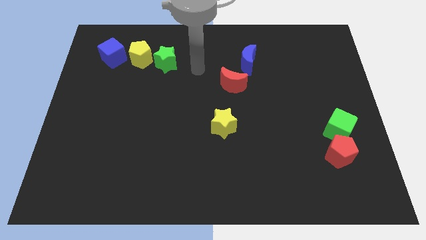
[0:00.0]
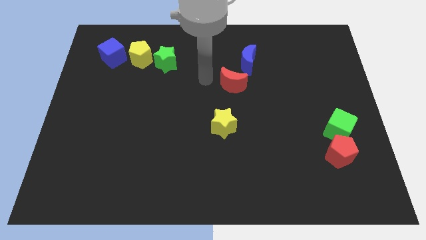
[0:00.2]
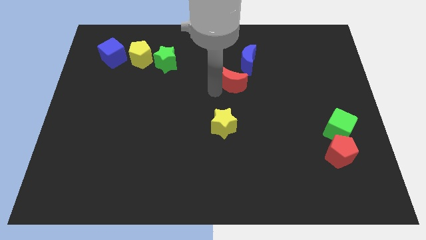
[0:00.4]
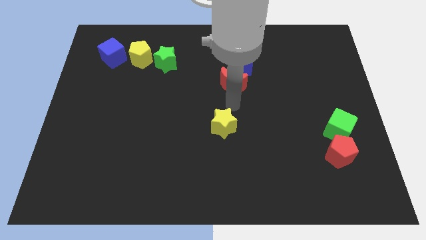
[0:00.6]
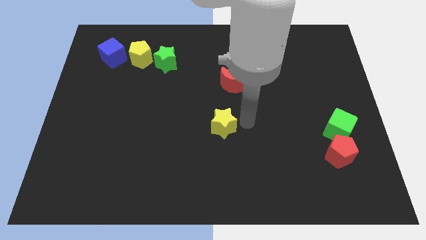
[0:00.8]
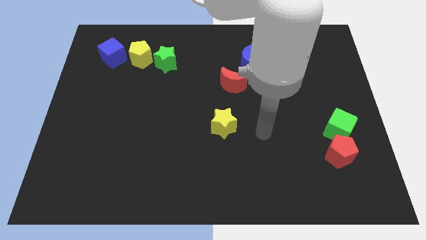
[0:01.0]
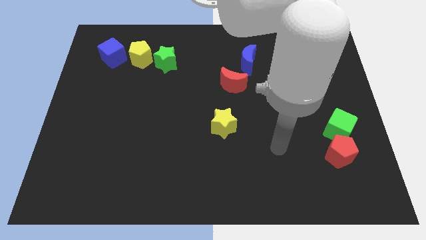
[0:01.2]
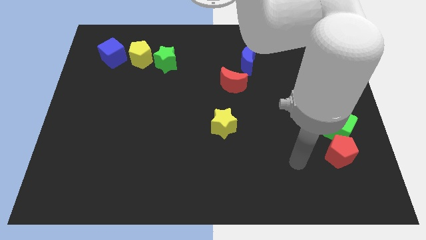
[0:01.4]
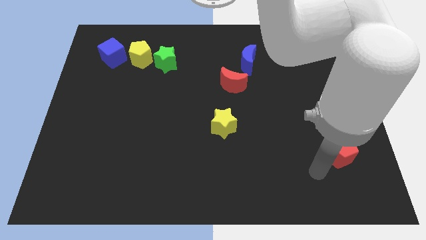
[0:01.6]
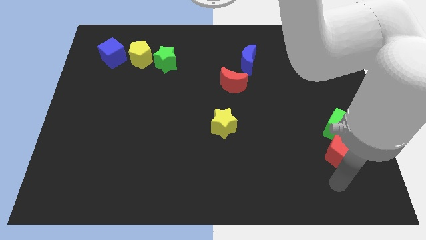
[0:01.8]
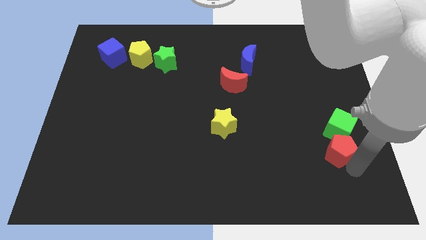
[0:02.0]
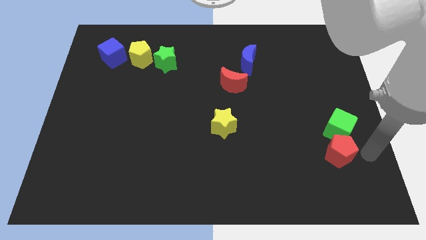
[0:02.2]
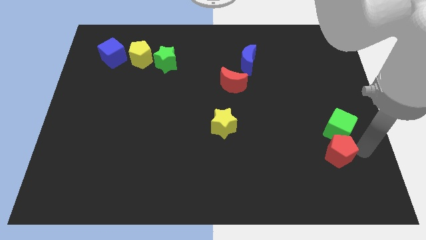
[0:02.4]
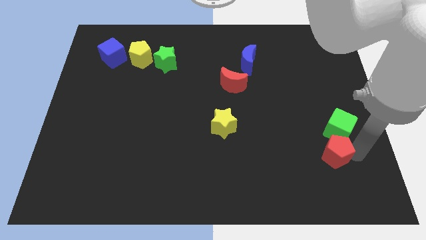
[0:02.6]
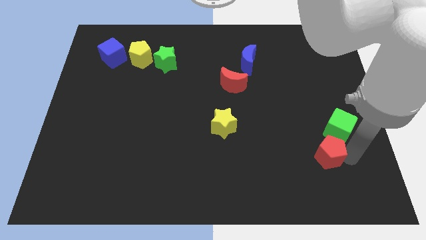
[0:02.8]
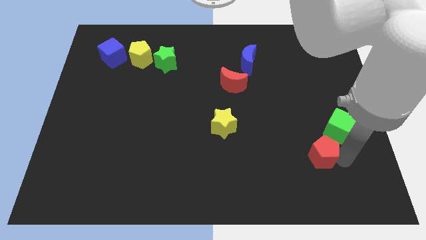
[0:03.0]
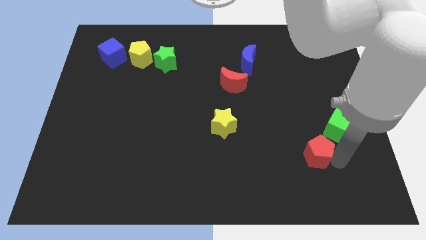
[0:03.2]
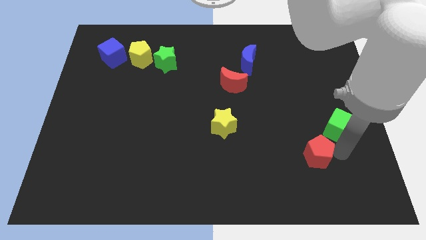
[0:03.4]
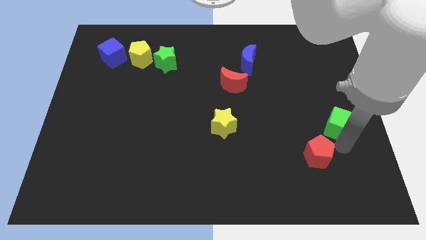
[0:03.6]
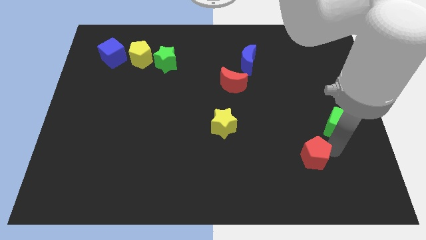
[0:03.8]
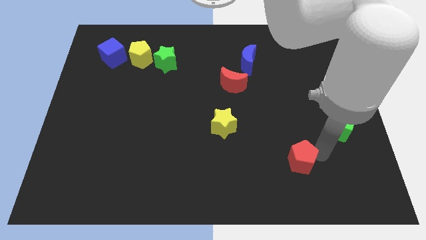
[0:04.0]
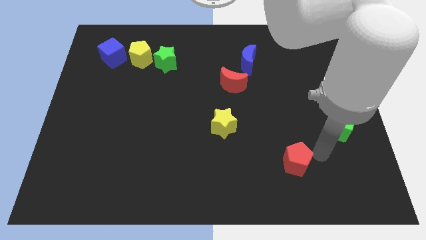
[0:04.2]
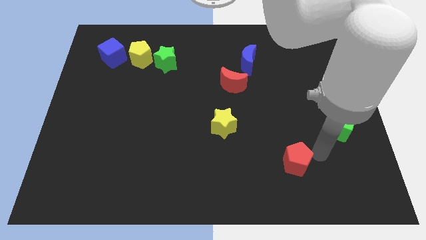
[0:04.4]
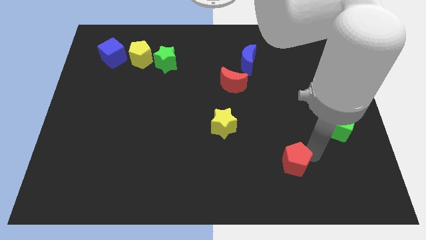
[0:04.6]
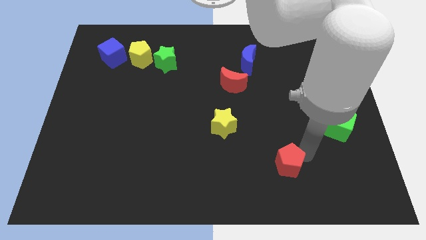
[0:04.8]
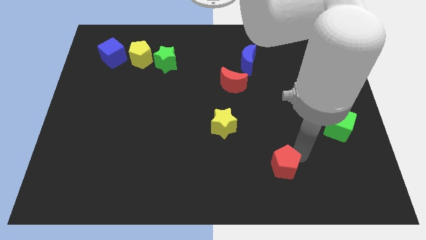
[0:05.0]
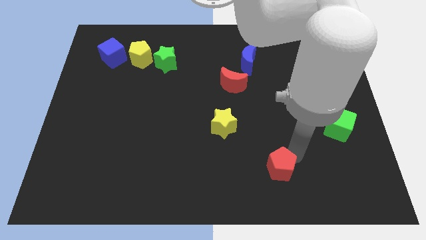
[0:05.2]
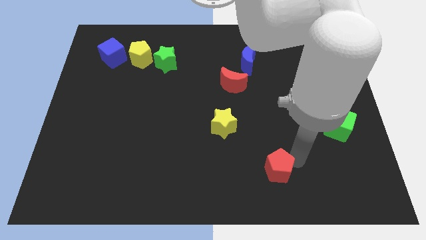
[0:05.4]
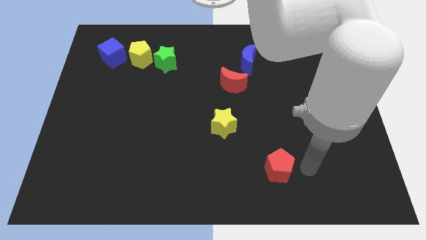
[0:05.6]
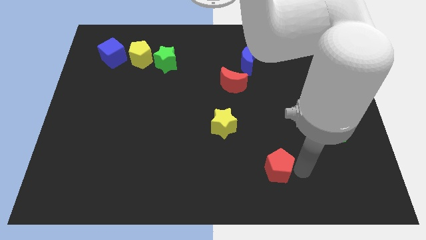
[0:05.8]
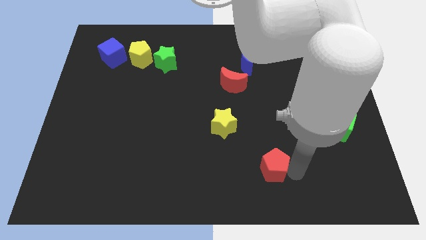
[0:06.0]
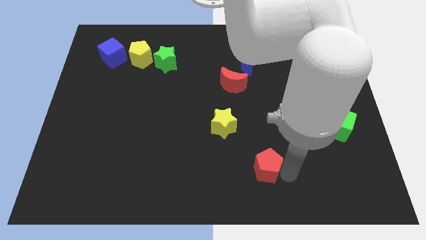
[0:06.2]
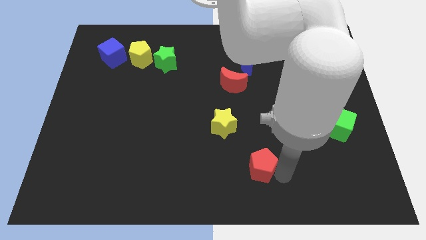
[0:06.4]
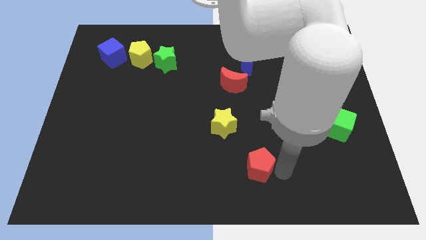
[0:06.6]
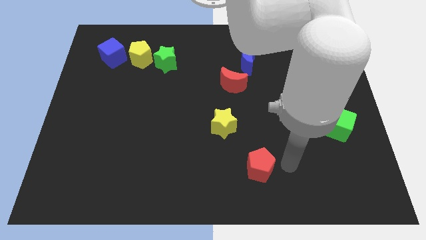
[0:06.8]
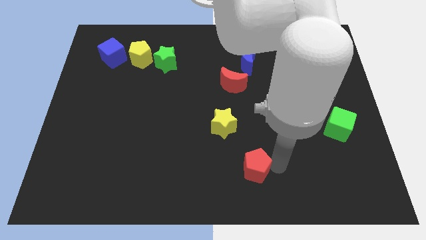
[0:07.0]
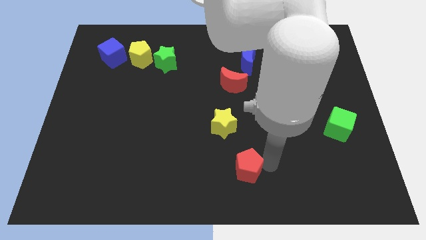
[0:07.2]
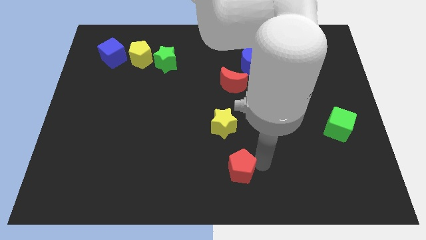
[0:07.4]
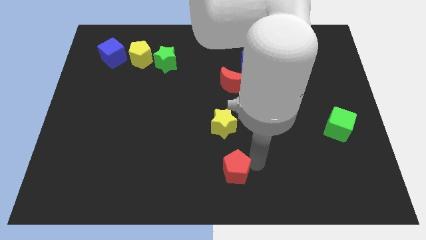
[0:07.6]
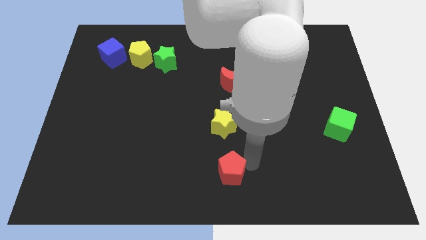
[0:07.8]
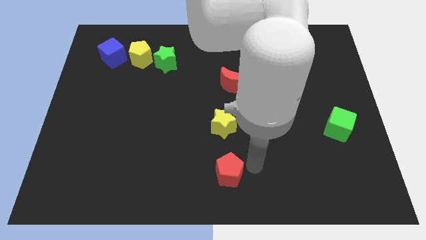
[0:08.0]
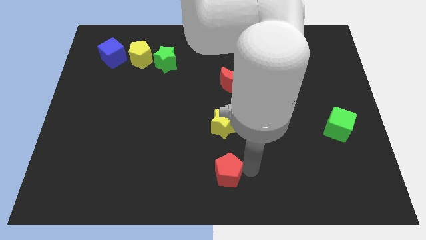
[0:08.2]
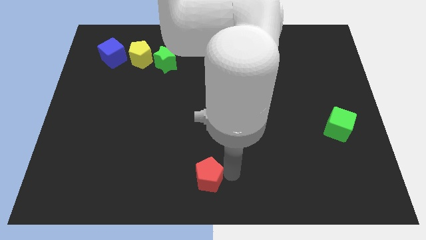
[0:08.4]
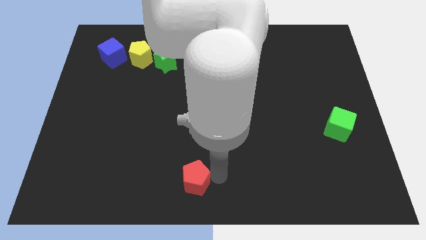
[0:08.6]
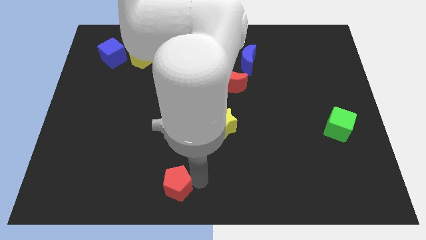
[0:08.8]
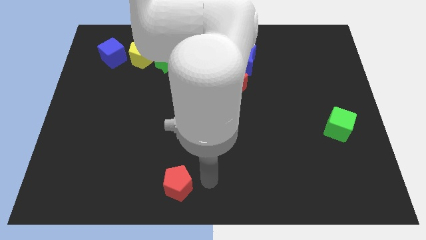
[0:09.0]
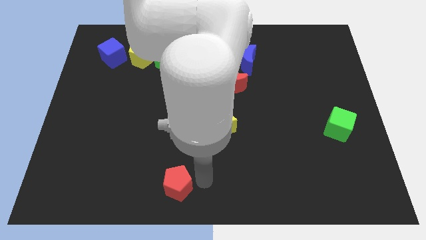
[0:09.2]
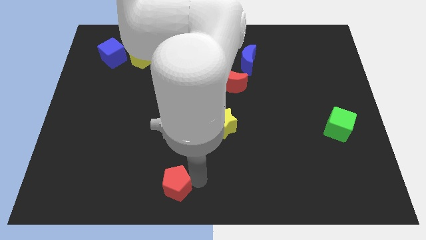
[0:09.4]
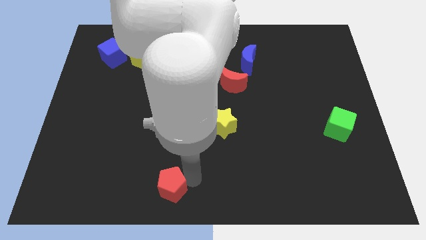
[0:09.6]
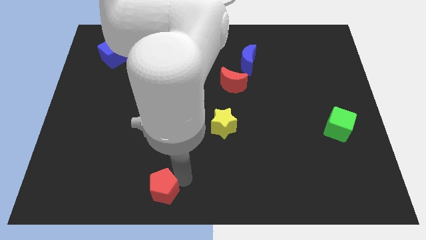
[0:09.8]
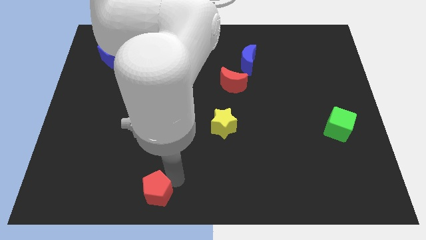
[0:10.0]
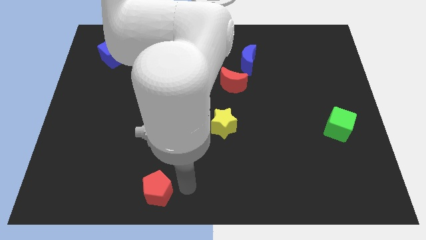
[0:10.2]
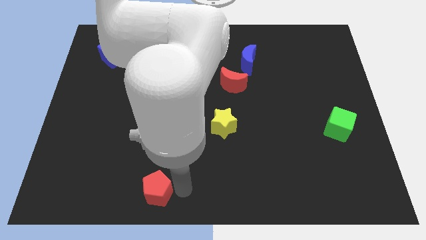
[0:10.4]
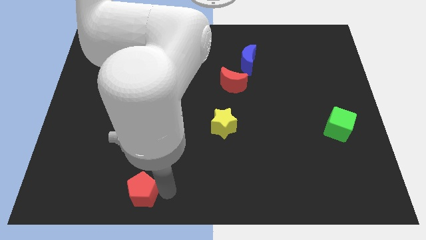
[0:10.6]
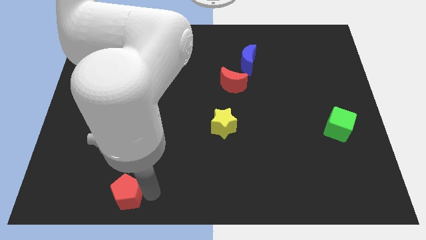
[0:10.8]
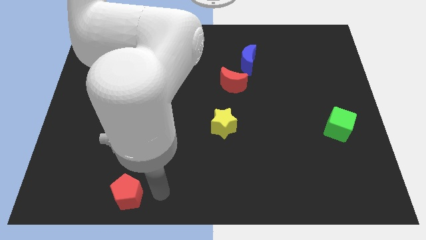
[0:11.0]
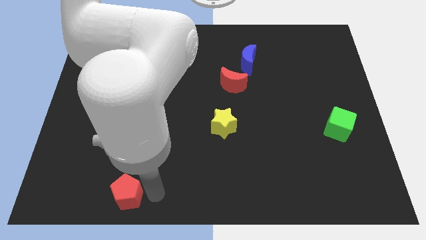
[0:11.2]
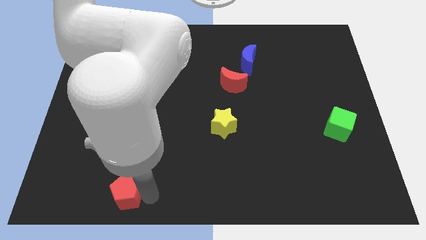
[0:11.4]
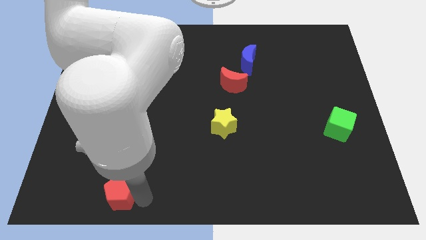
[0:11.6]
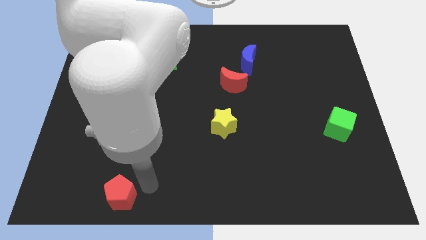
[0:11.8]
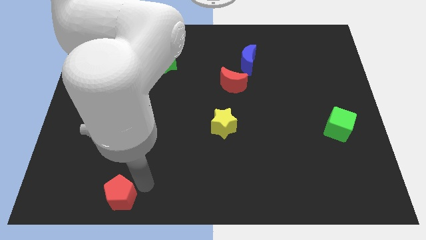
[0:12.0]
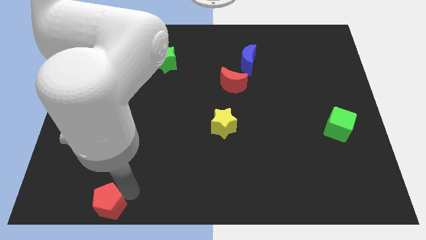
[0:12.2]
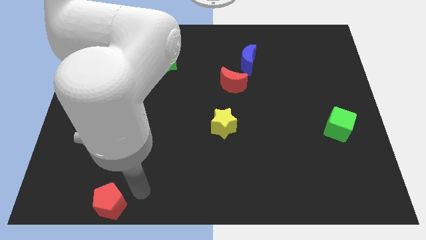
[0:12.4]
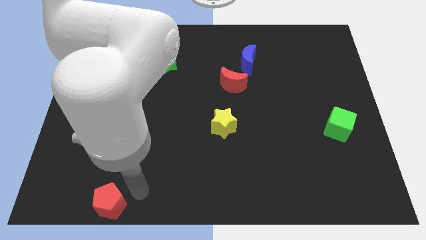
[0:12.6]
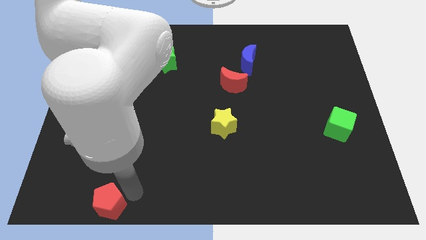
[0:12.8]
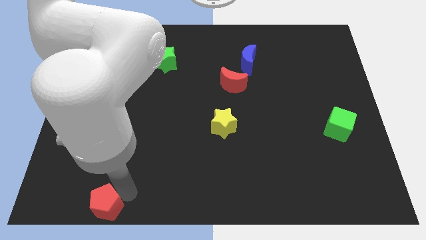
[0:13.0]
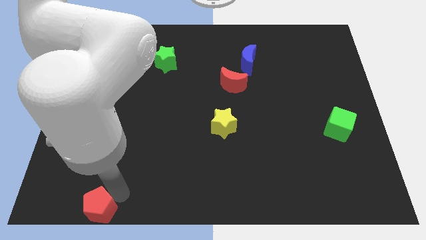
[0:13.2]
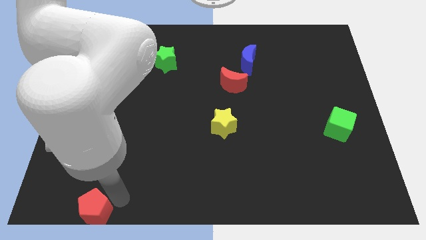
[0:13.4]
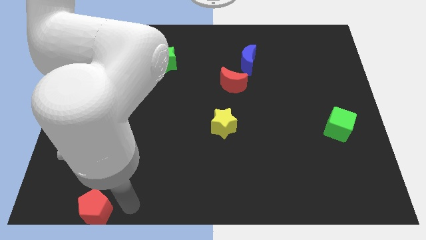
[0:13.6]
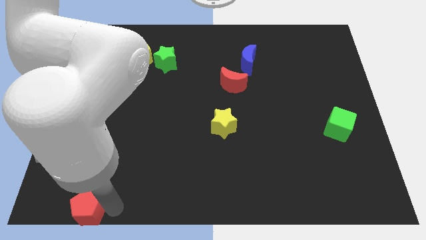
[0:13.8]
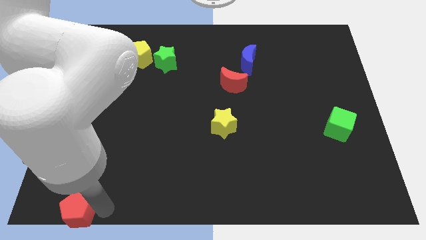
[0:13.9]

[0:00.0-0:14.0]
push the red pentagon to the lower left corner
